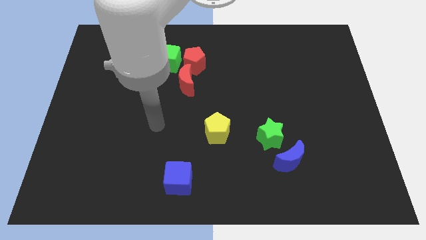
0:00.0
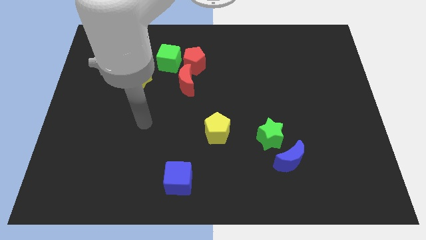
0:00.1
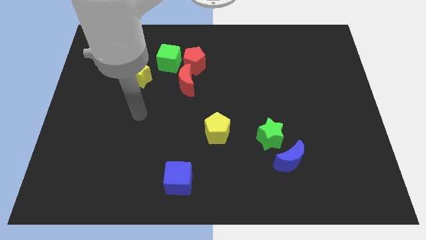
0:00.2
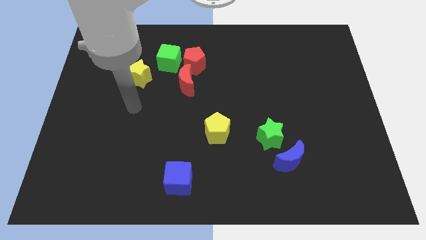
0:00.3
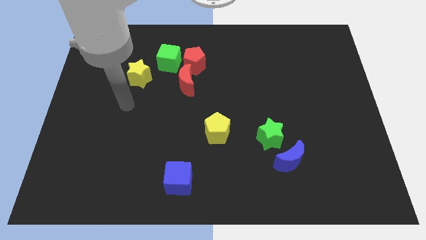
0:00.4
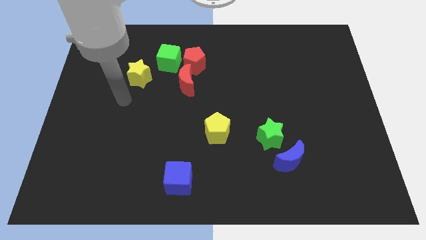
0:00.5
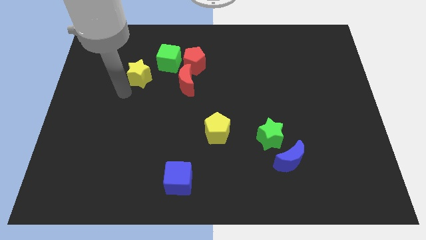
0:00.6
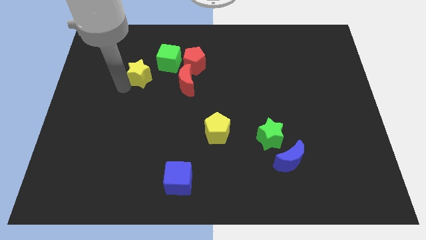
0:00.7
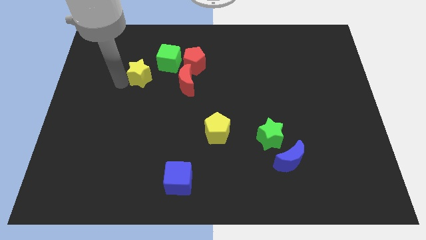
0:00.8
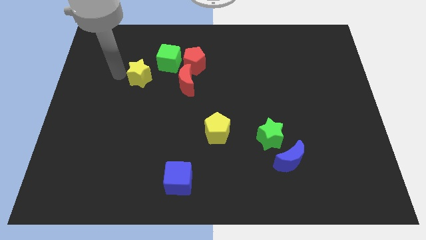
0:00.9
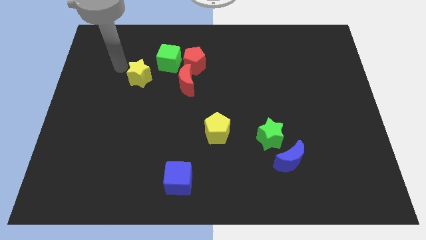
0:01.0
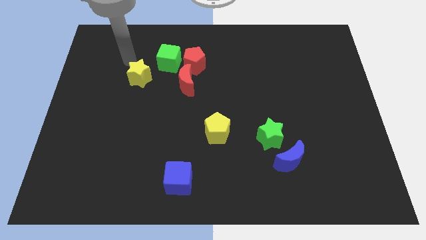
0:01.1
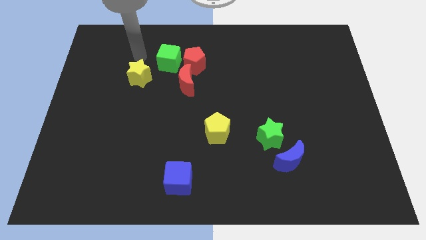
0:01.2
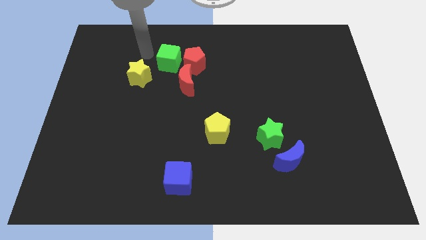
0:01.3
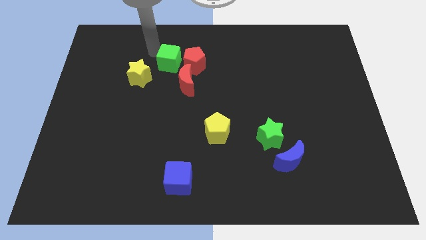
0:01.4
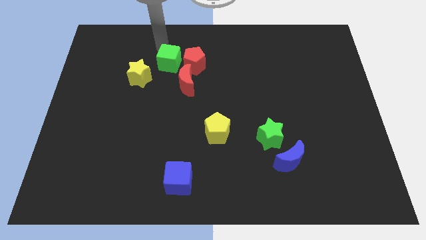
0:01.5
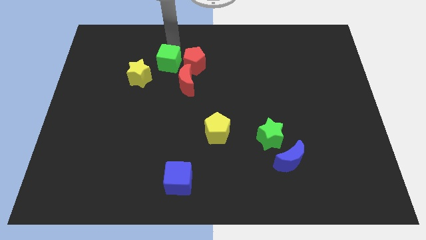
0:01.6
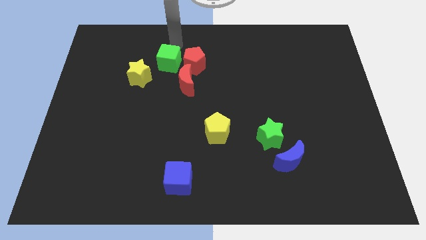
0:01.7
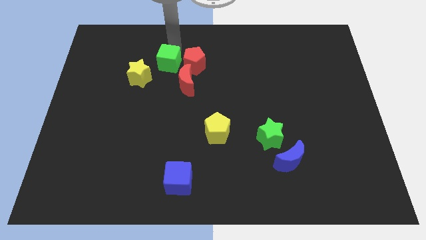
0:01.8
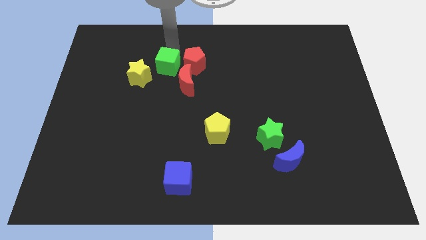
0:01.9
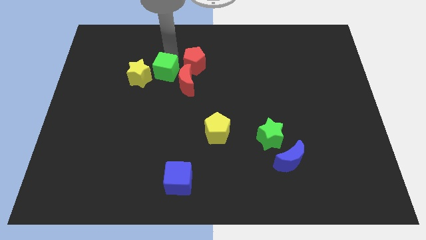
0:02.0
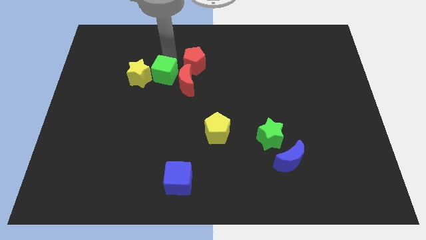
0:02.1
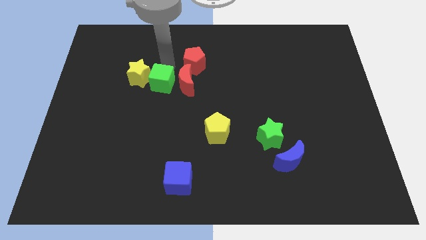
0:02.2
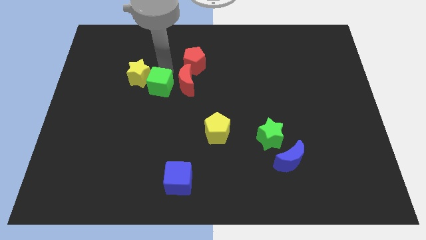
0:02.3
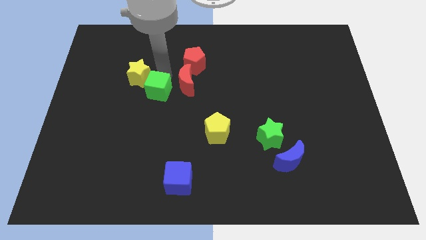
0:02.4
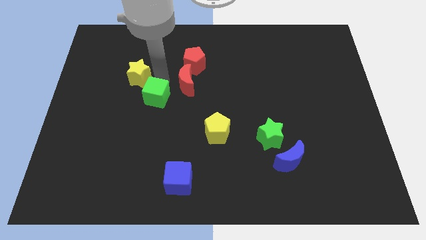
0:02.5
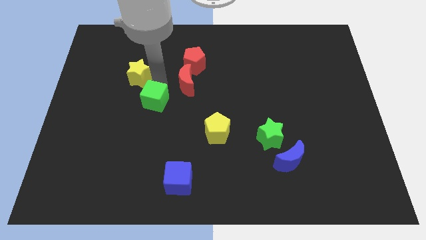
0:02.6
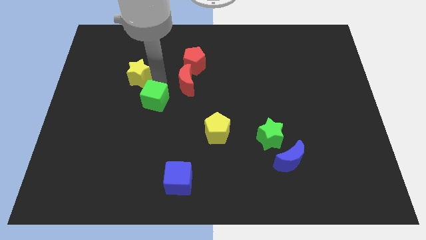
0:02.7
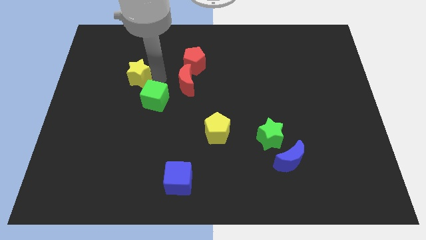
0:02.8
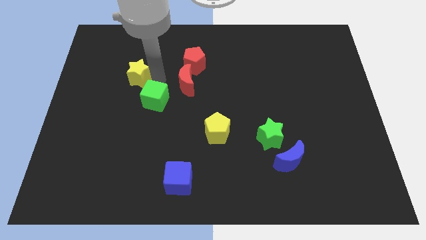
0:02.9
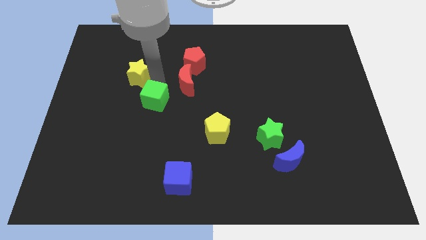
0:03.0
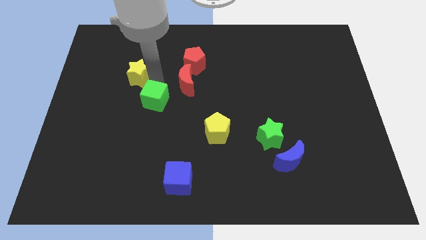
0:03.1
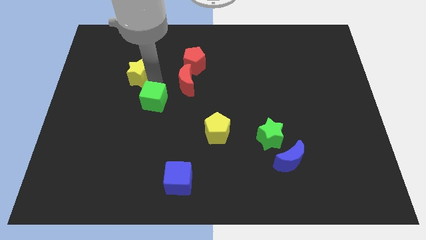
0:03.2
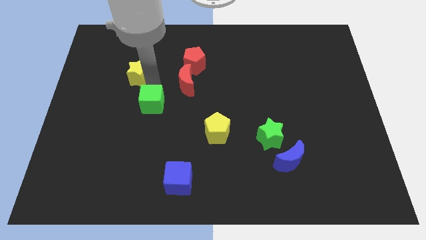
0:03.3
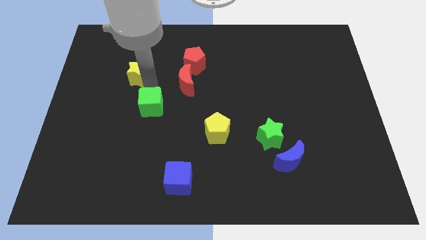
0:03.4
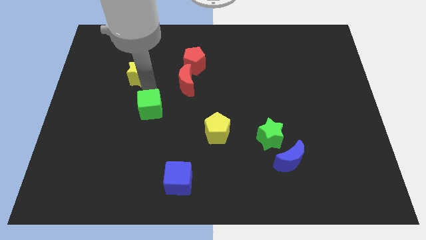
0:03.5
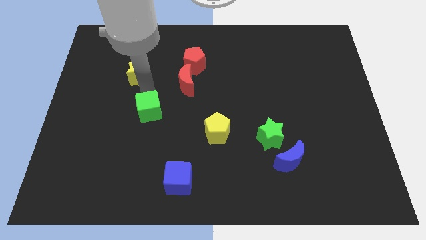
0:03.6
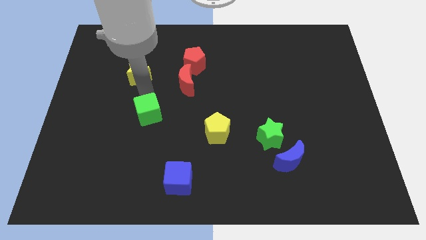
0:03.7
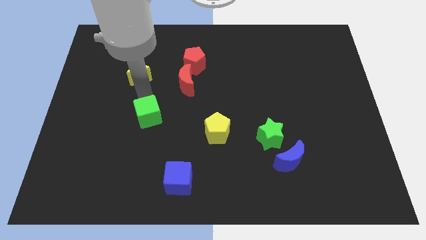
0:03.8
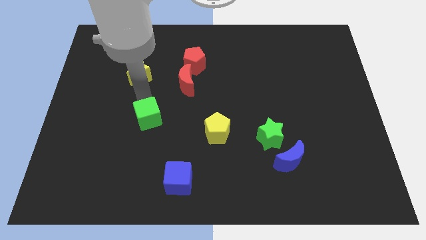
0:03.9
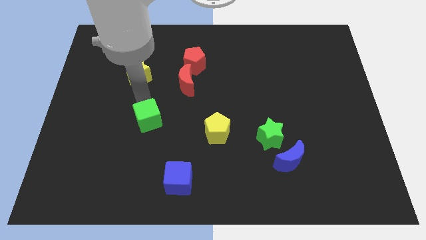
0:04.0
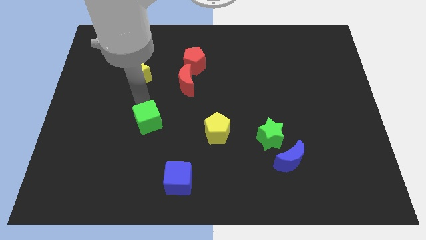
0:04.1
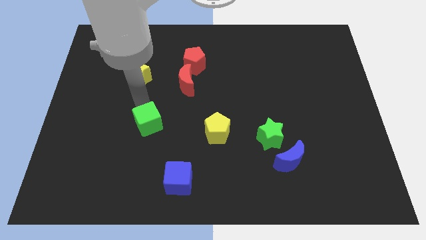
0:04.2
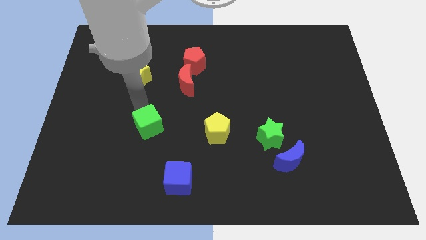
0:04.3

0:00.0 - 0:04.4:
move the green cube downwards

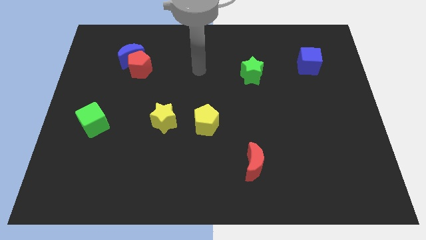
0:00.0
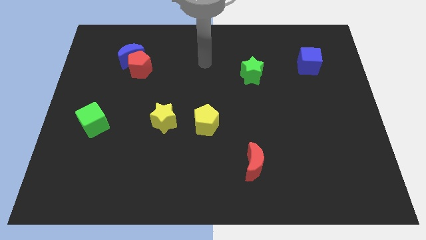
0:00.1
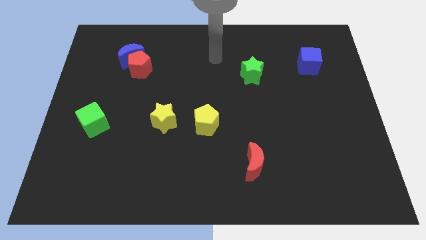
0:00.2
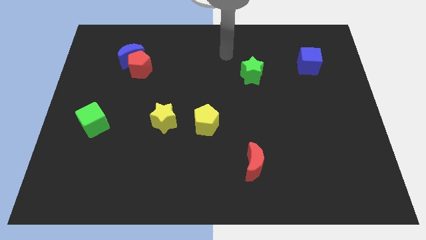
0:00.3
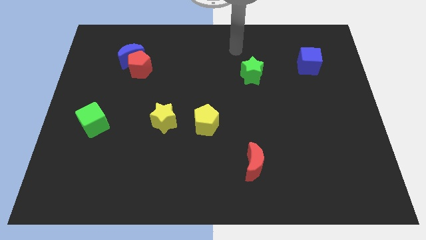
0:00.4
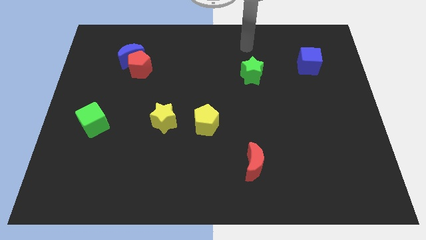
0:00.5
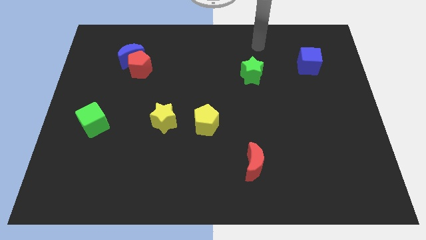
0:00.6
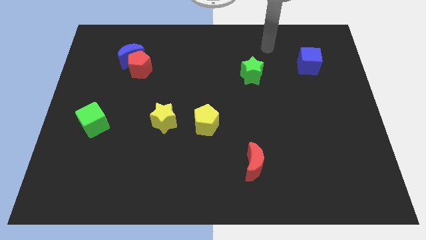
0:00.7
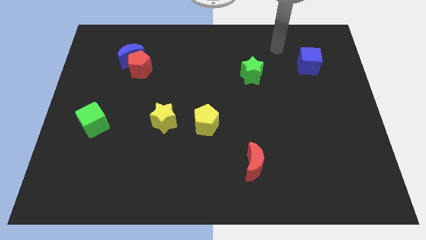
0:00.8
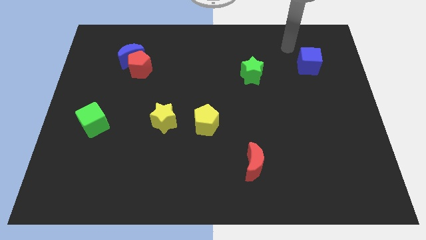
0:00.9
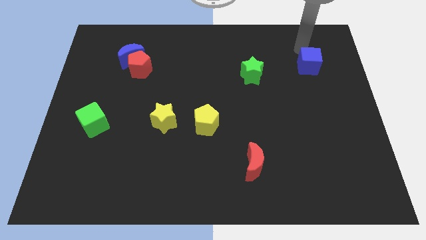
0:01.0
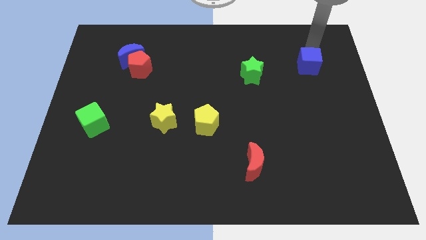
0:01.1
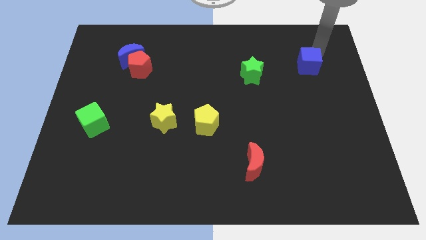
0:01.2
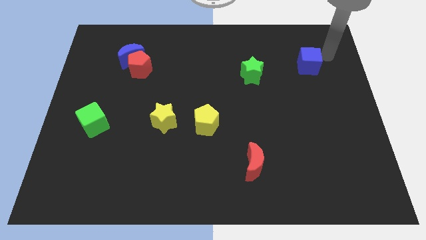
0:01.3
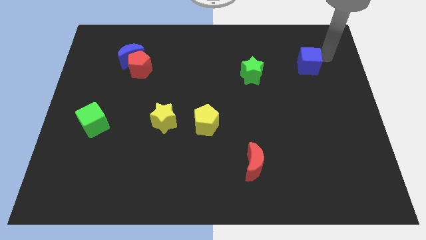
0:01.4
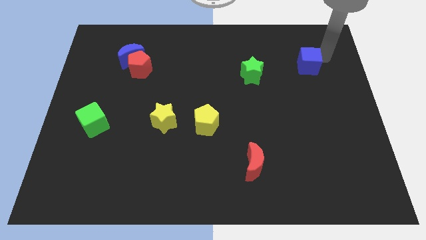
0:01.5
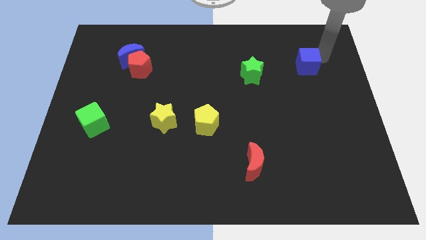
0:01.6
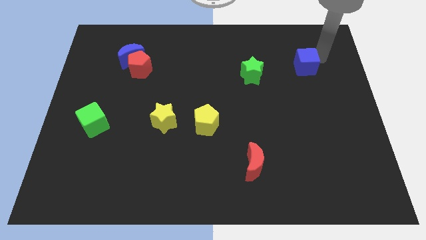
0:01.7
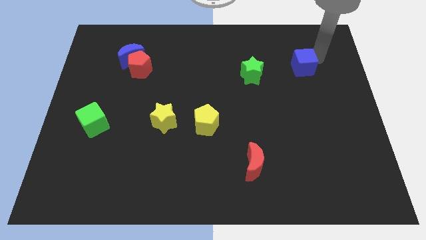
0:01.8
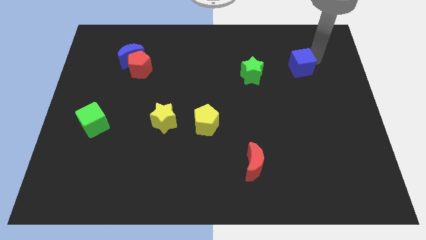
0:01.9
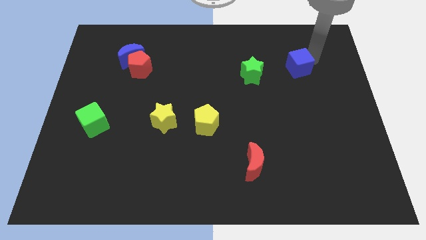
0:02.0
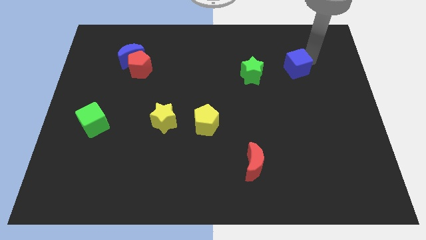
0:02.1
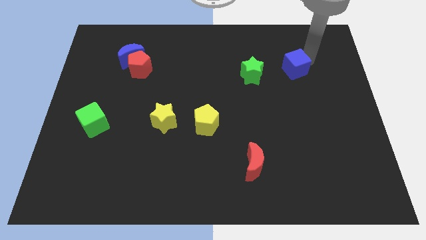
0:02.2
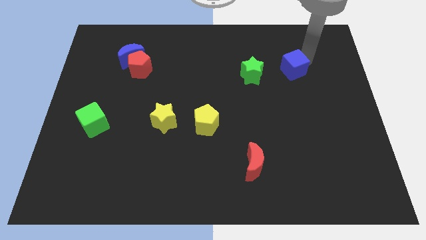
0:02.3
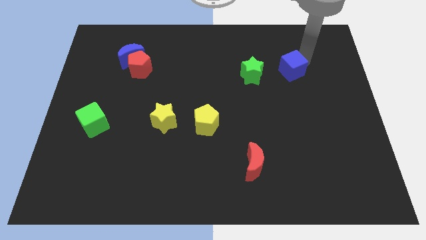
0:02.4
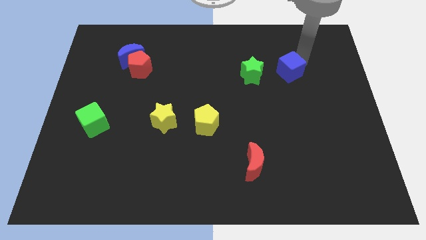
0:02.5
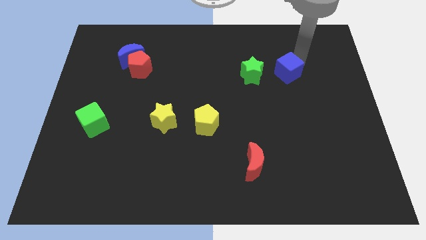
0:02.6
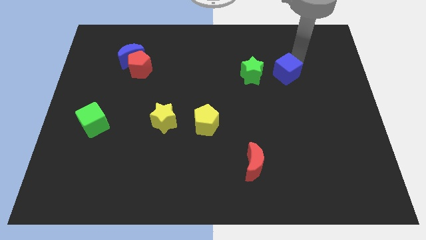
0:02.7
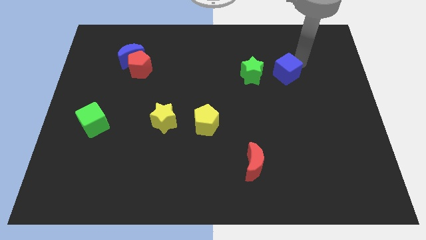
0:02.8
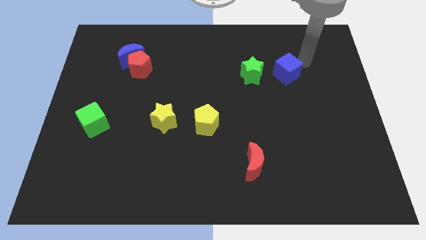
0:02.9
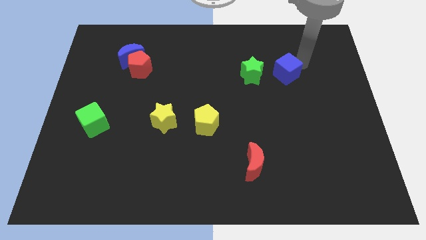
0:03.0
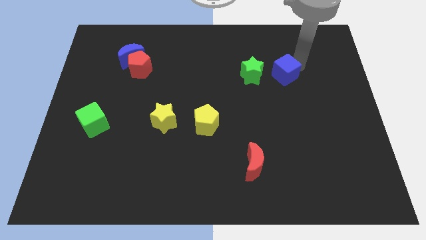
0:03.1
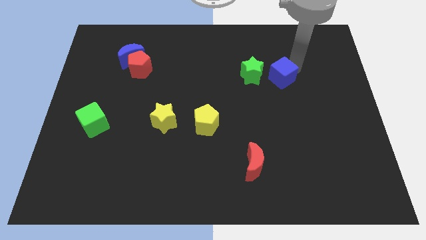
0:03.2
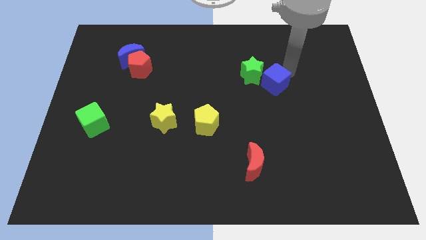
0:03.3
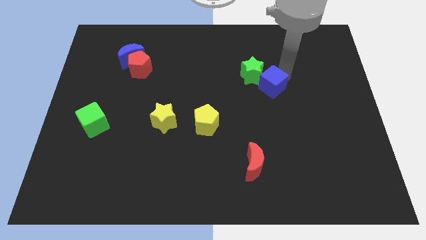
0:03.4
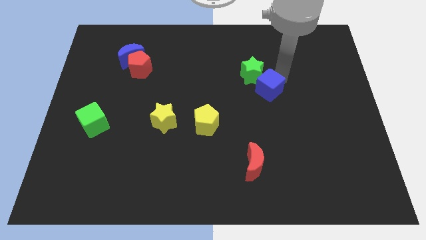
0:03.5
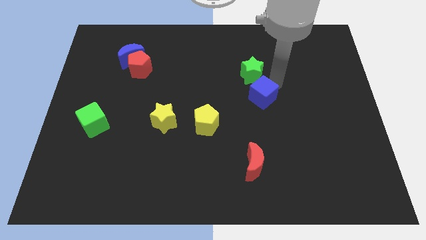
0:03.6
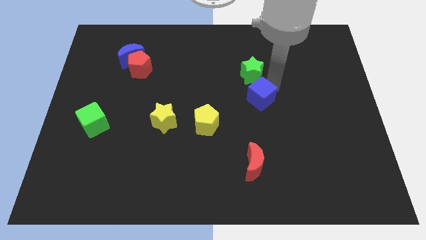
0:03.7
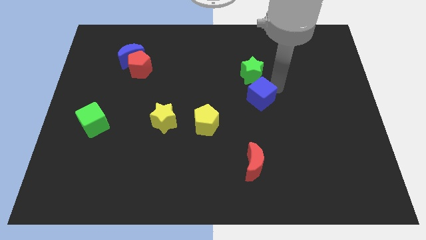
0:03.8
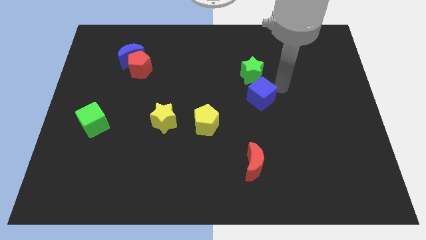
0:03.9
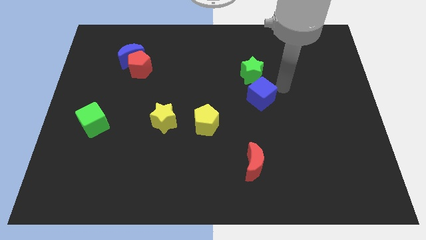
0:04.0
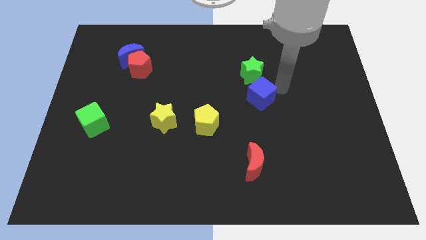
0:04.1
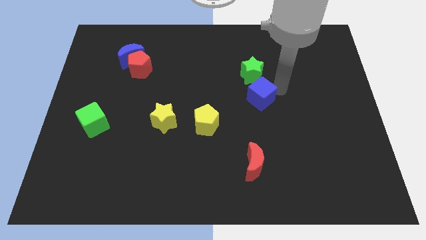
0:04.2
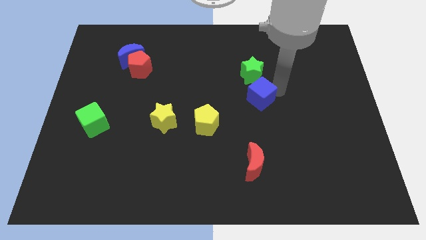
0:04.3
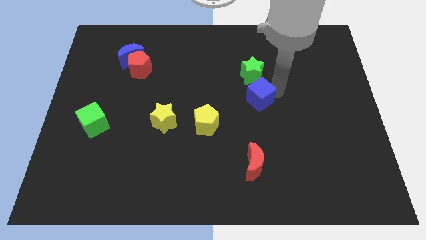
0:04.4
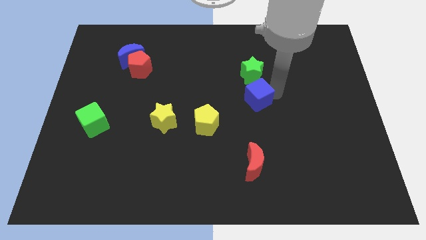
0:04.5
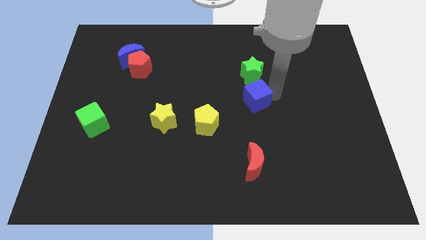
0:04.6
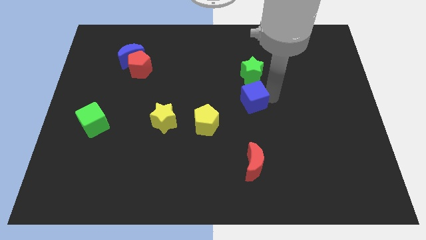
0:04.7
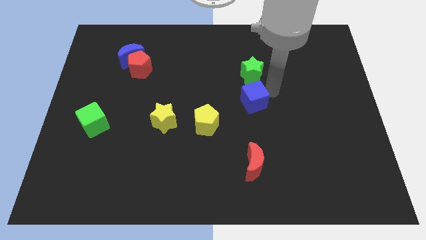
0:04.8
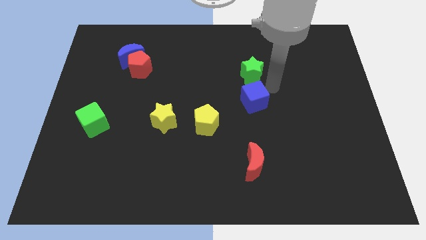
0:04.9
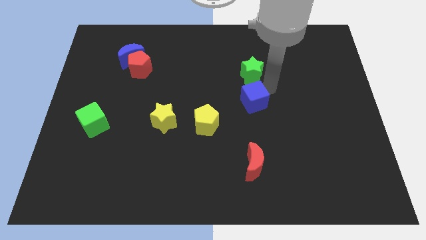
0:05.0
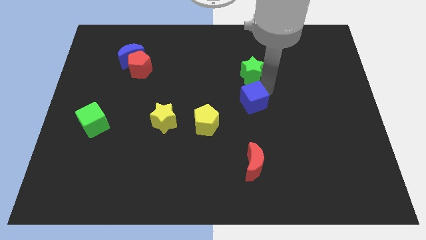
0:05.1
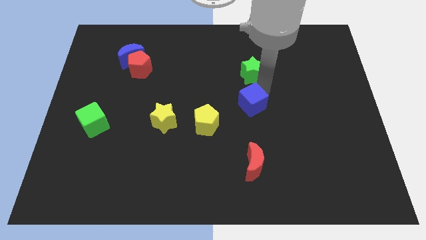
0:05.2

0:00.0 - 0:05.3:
move the blue cube diagonally downwards and left
